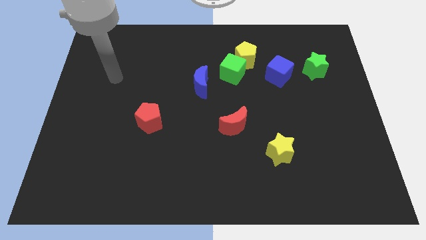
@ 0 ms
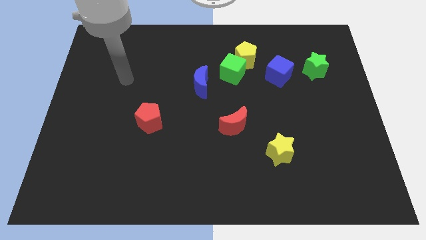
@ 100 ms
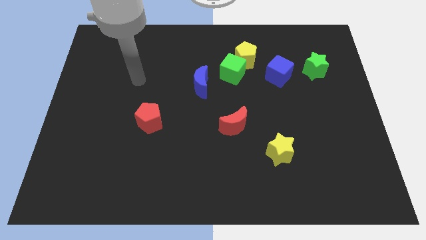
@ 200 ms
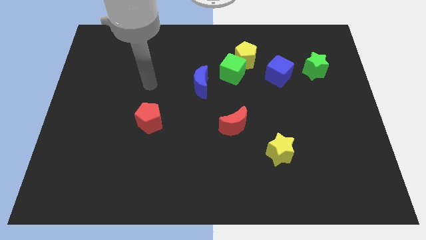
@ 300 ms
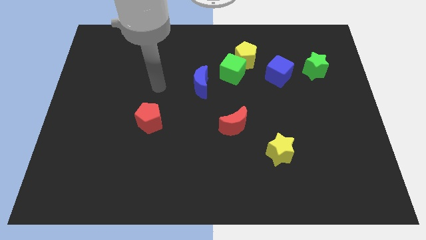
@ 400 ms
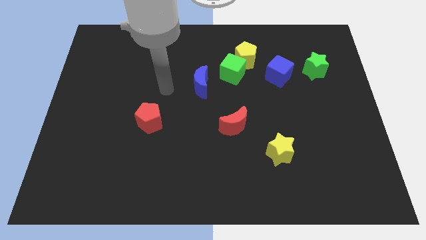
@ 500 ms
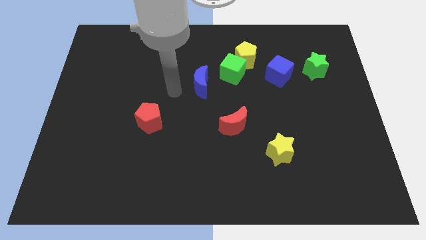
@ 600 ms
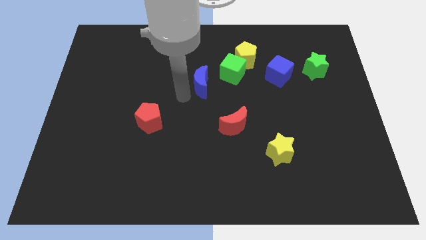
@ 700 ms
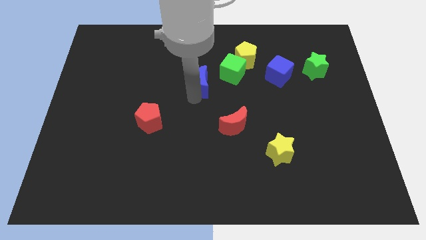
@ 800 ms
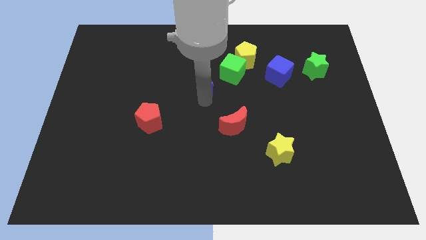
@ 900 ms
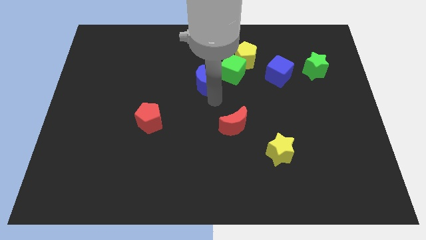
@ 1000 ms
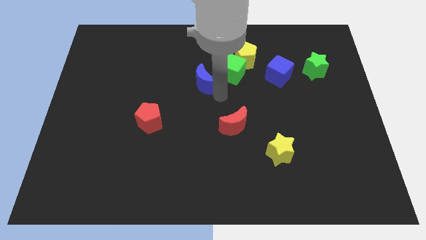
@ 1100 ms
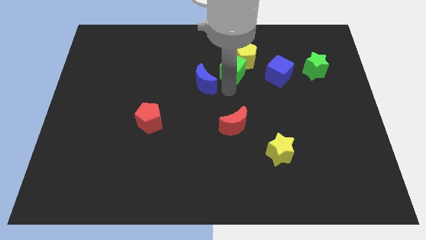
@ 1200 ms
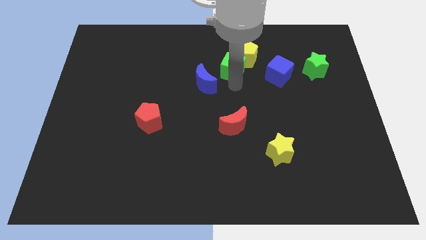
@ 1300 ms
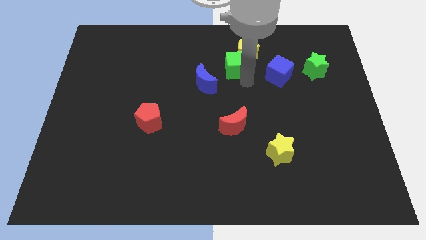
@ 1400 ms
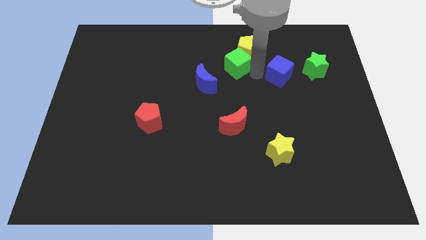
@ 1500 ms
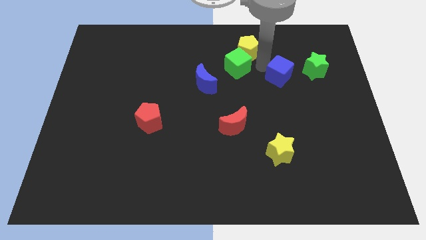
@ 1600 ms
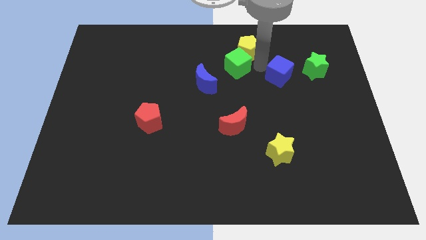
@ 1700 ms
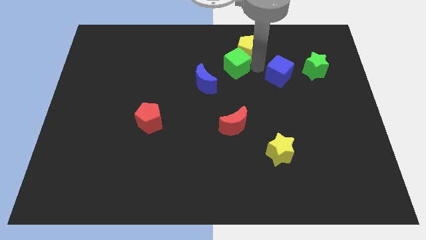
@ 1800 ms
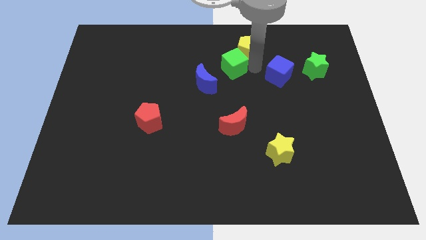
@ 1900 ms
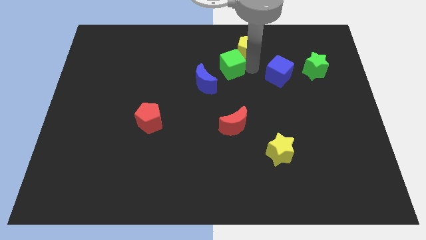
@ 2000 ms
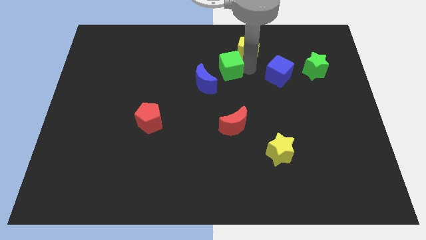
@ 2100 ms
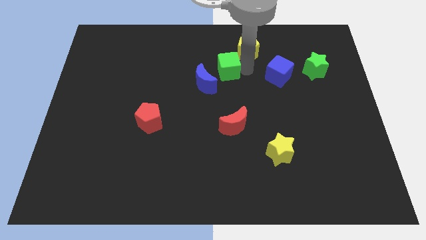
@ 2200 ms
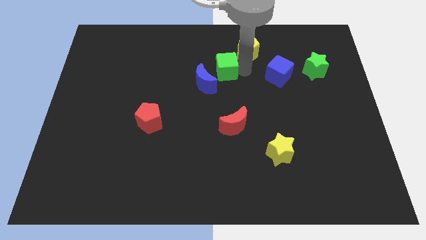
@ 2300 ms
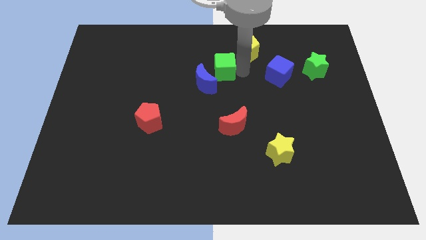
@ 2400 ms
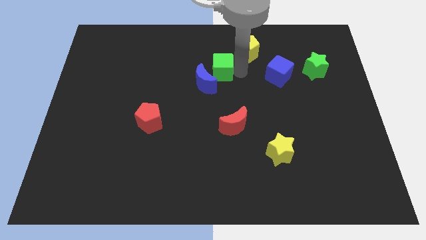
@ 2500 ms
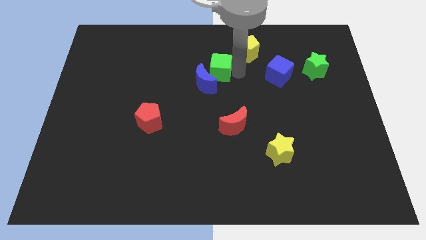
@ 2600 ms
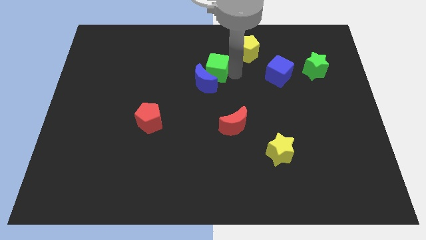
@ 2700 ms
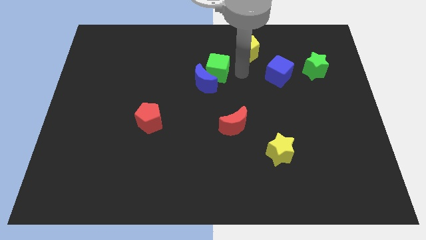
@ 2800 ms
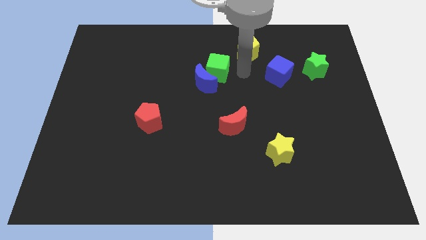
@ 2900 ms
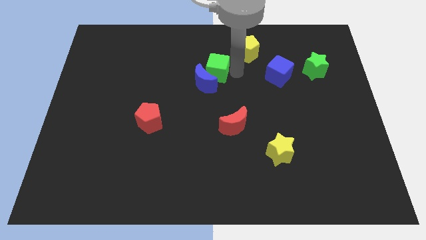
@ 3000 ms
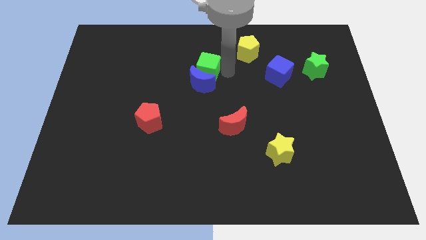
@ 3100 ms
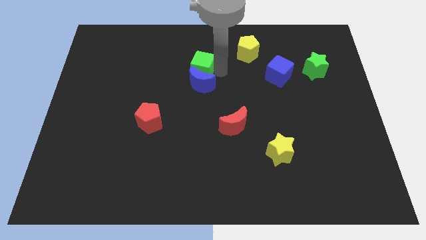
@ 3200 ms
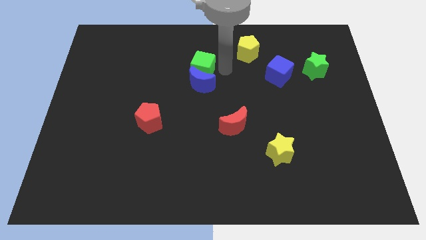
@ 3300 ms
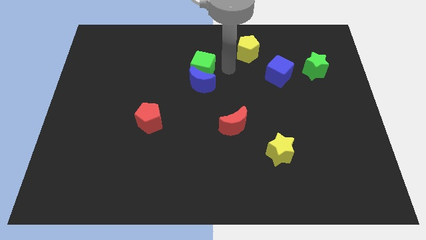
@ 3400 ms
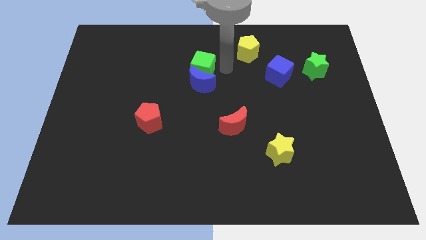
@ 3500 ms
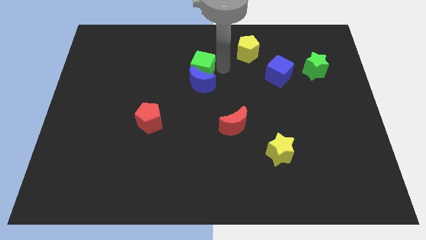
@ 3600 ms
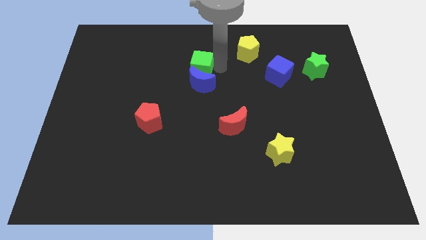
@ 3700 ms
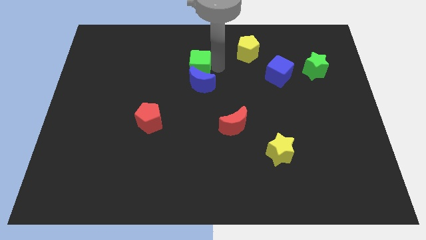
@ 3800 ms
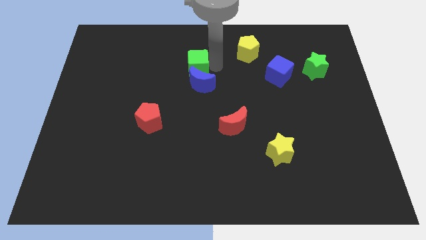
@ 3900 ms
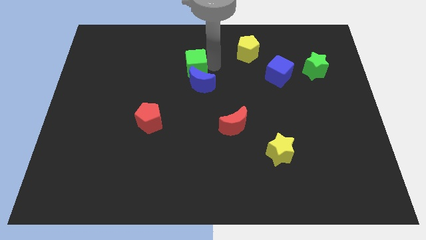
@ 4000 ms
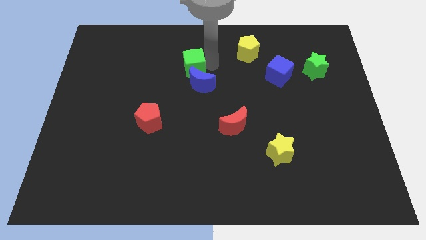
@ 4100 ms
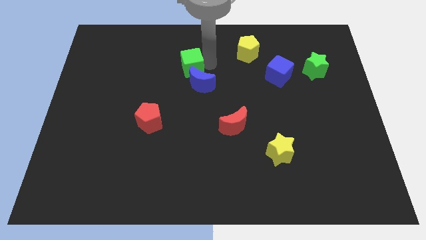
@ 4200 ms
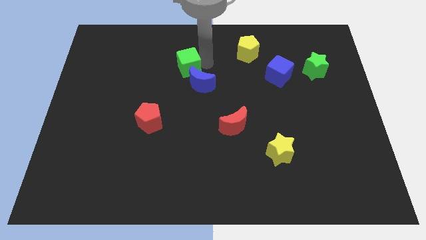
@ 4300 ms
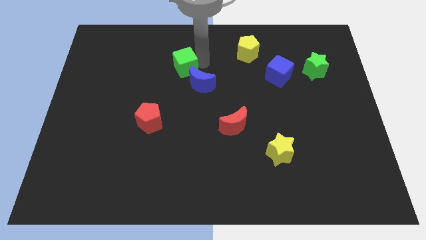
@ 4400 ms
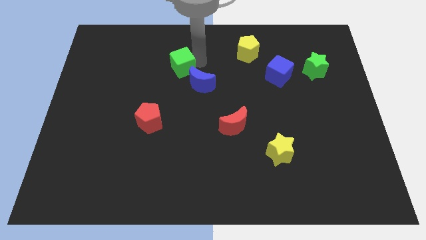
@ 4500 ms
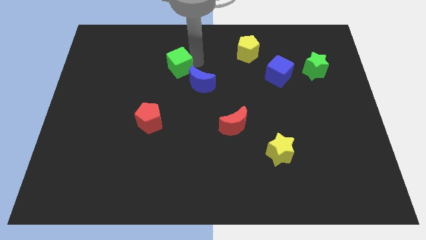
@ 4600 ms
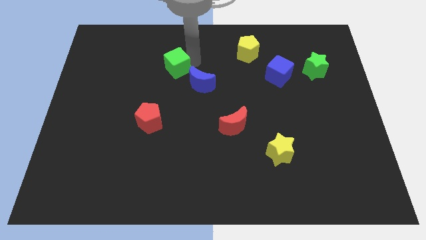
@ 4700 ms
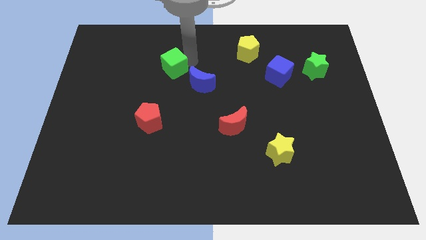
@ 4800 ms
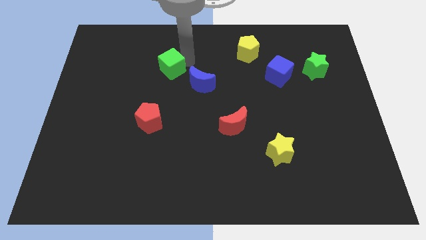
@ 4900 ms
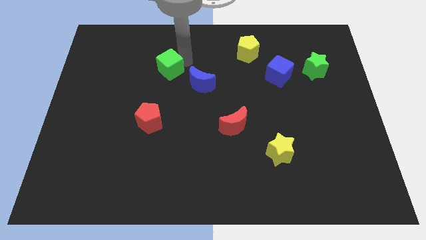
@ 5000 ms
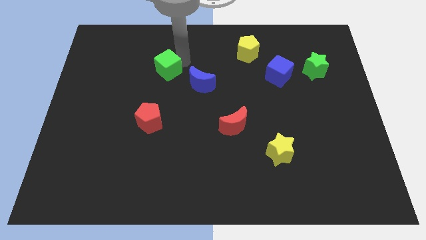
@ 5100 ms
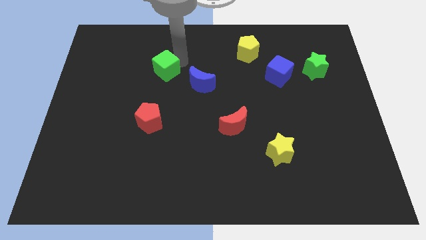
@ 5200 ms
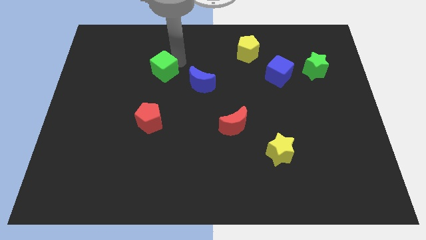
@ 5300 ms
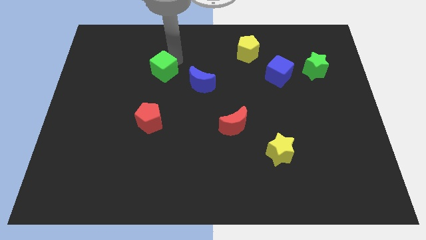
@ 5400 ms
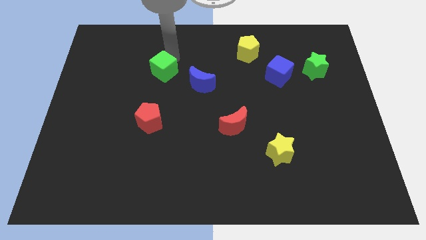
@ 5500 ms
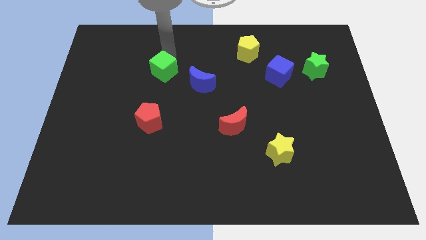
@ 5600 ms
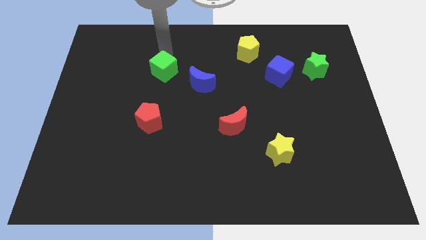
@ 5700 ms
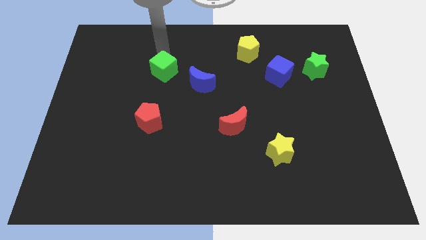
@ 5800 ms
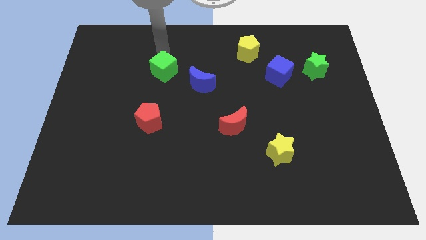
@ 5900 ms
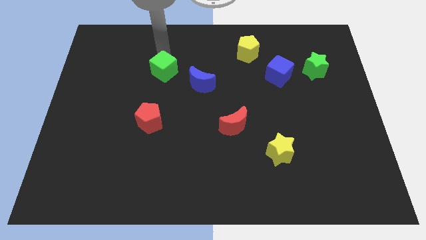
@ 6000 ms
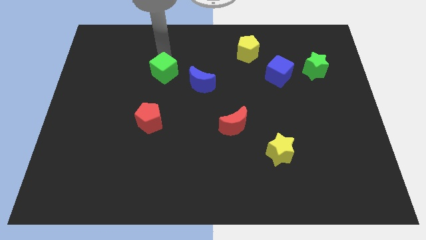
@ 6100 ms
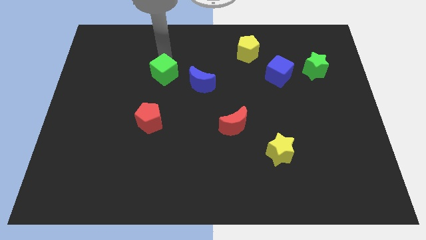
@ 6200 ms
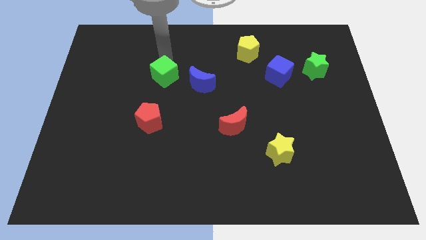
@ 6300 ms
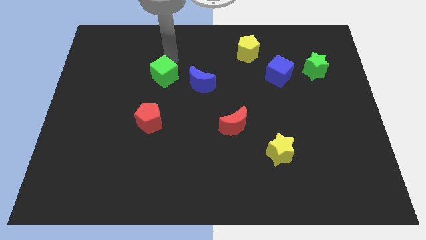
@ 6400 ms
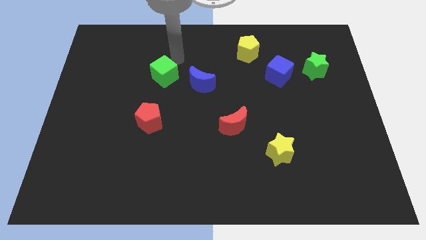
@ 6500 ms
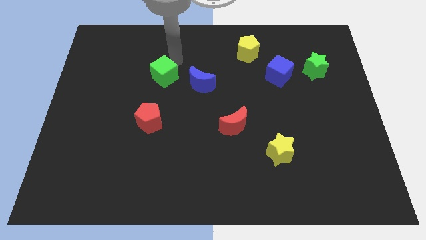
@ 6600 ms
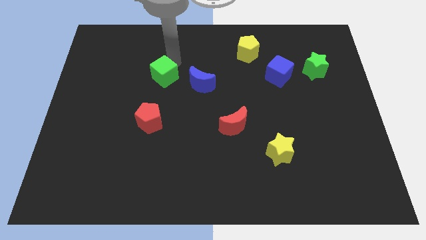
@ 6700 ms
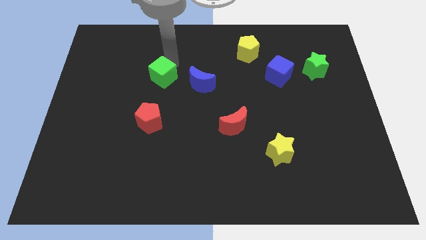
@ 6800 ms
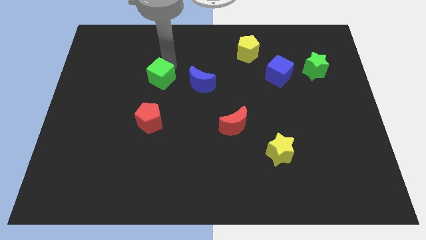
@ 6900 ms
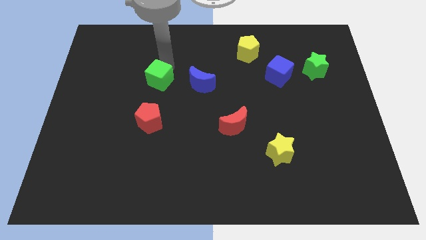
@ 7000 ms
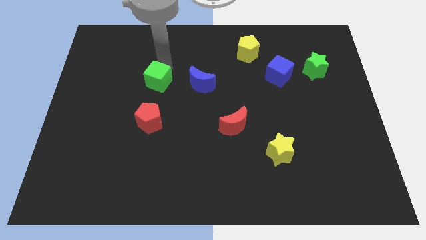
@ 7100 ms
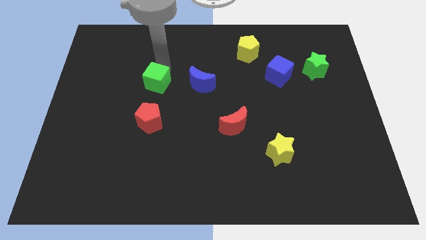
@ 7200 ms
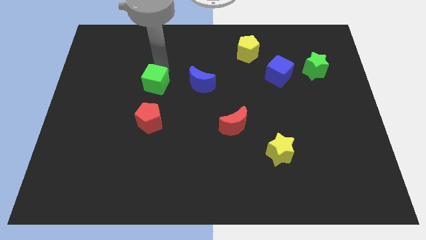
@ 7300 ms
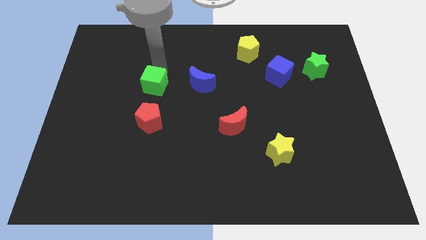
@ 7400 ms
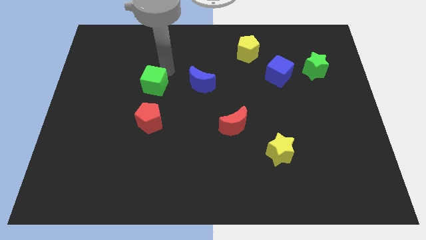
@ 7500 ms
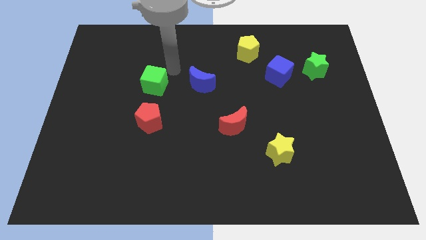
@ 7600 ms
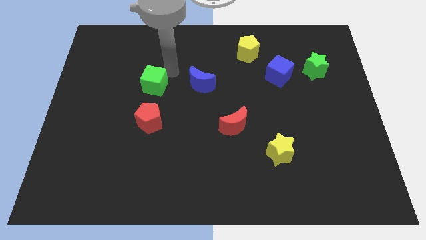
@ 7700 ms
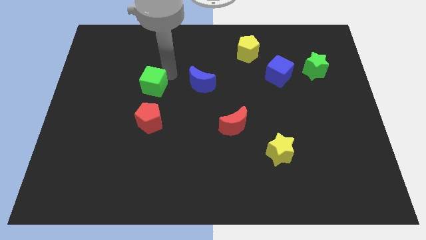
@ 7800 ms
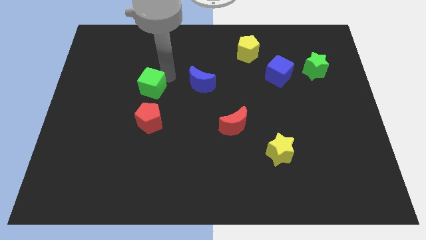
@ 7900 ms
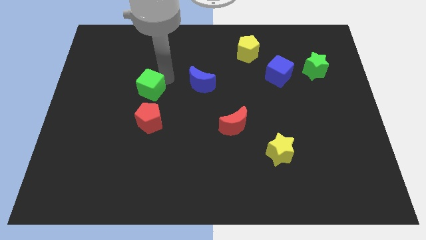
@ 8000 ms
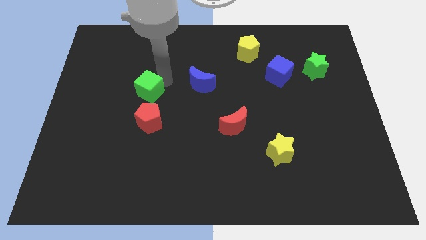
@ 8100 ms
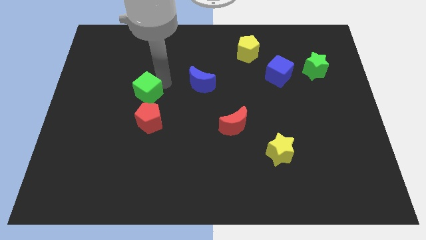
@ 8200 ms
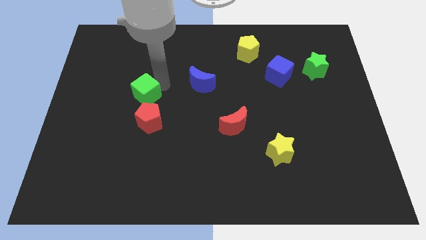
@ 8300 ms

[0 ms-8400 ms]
push the green cube to the top left side of the red pentagon
